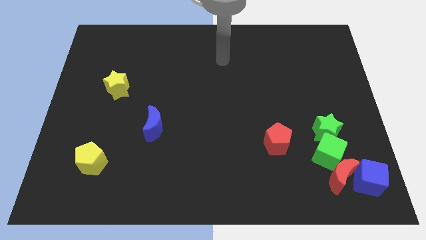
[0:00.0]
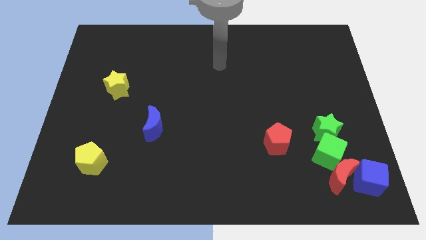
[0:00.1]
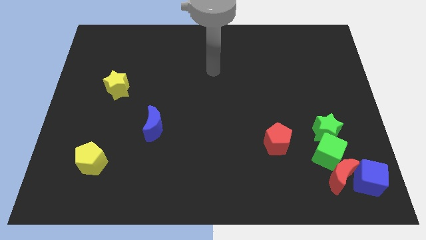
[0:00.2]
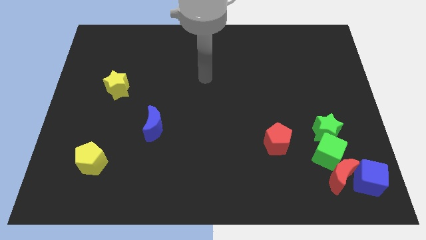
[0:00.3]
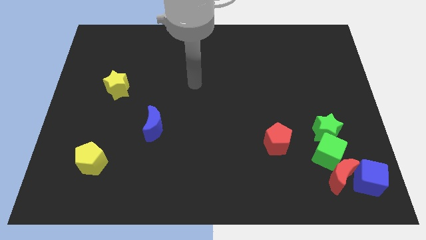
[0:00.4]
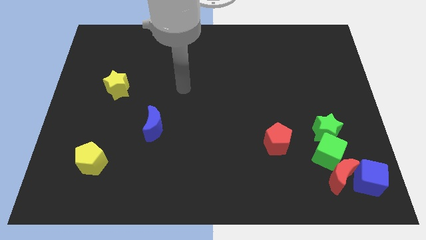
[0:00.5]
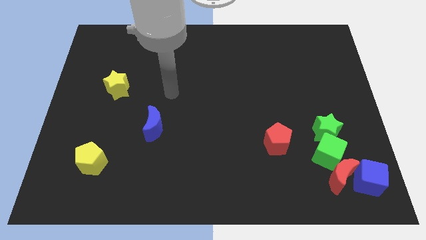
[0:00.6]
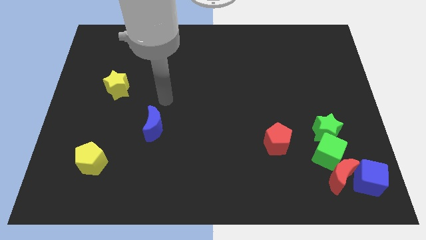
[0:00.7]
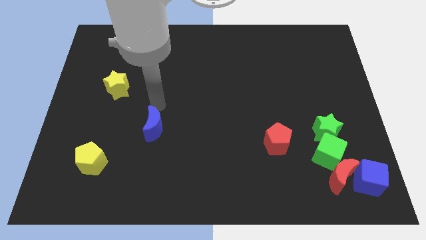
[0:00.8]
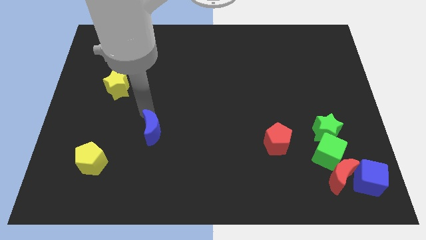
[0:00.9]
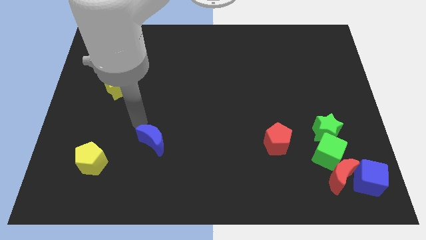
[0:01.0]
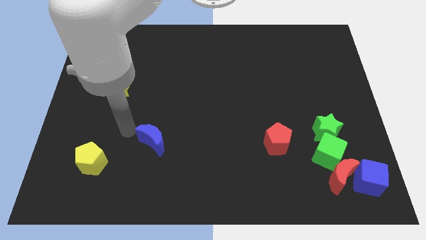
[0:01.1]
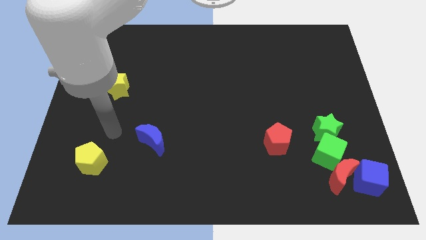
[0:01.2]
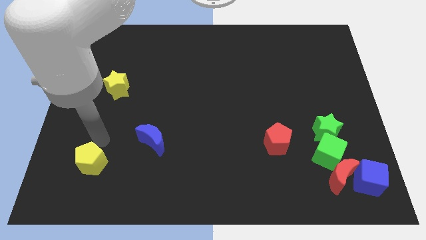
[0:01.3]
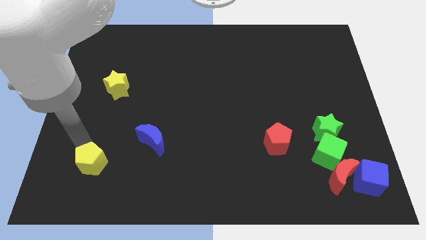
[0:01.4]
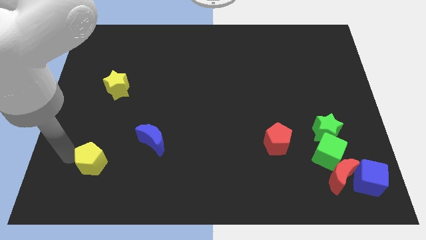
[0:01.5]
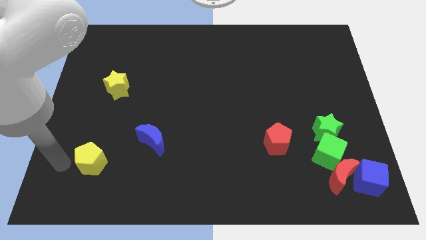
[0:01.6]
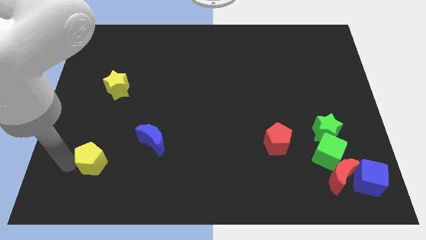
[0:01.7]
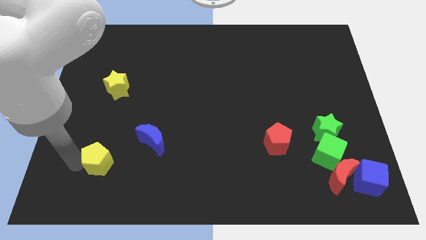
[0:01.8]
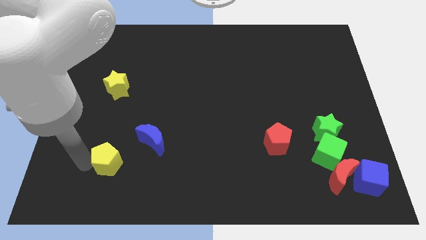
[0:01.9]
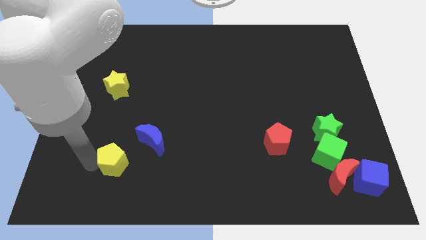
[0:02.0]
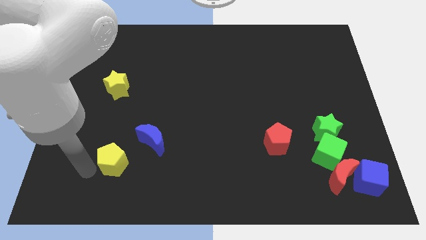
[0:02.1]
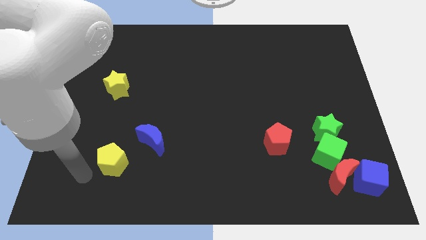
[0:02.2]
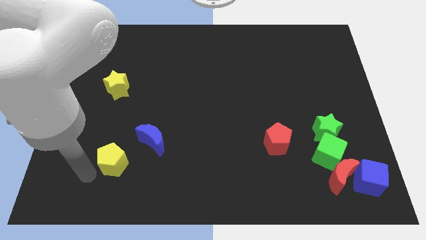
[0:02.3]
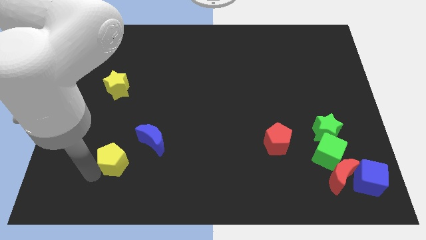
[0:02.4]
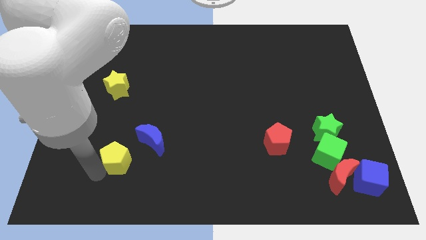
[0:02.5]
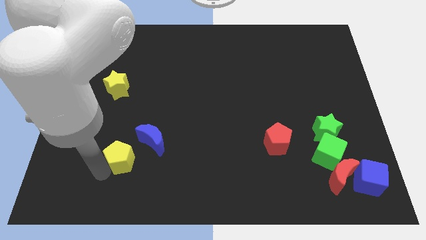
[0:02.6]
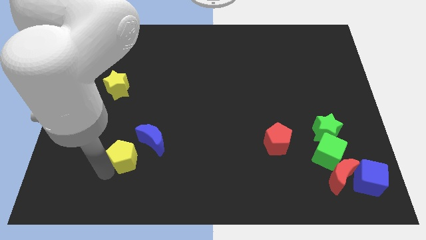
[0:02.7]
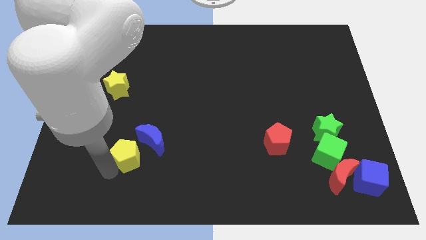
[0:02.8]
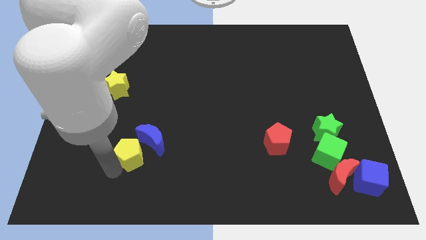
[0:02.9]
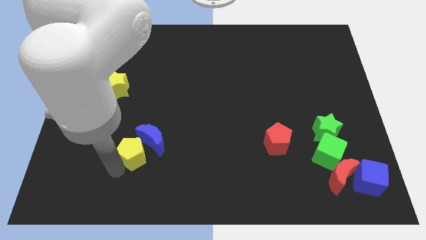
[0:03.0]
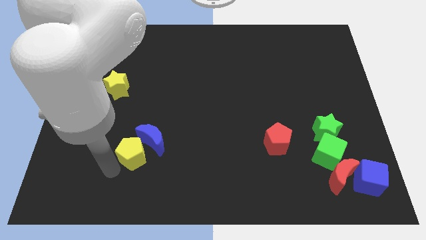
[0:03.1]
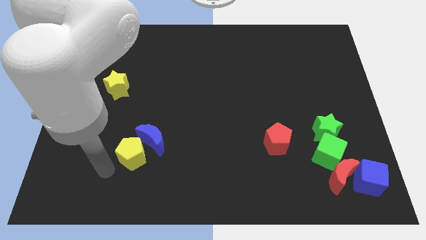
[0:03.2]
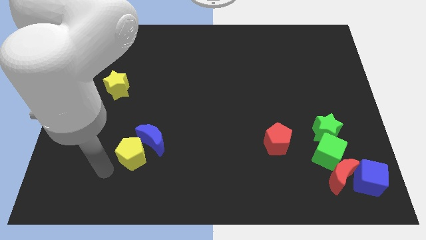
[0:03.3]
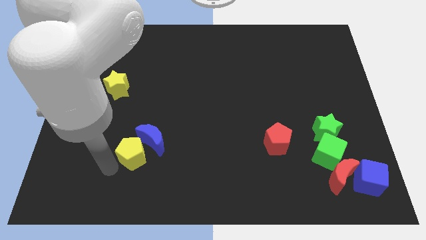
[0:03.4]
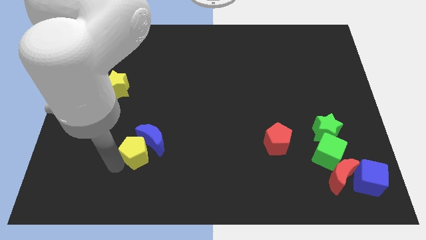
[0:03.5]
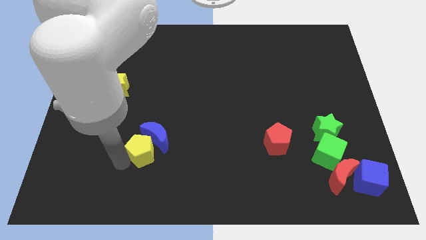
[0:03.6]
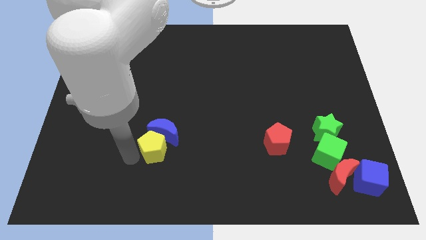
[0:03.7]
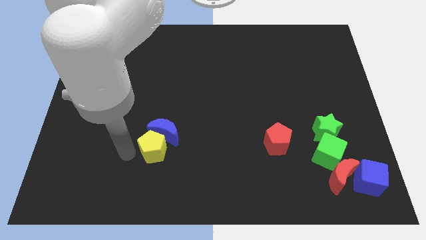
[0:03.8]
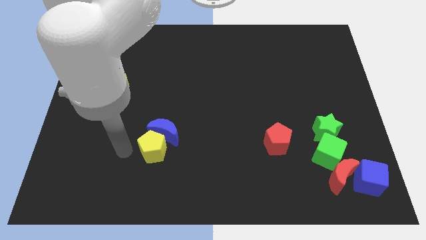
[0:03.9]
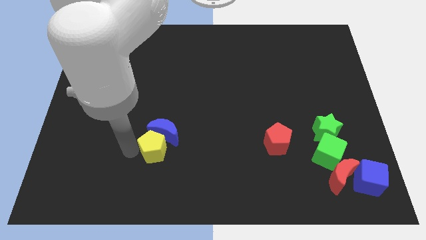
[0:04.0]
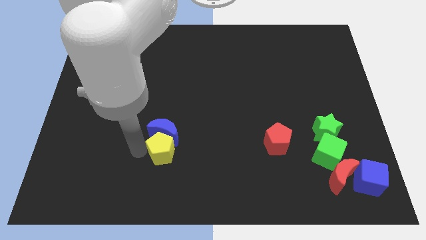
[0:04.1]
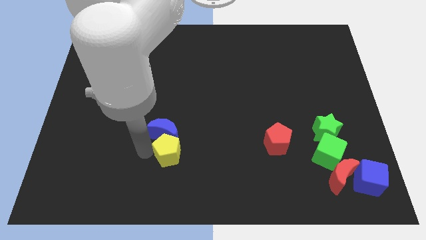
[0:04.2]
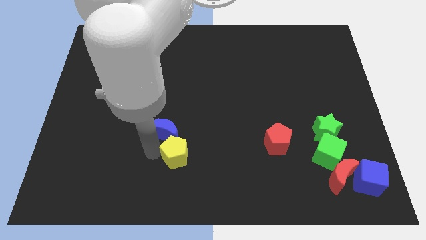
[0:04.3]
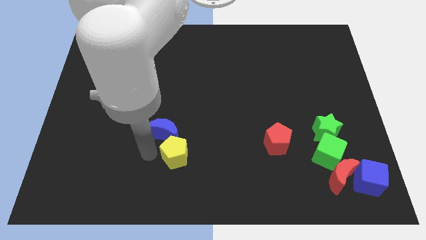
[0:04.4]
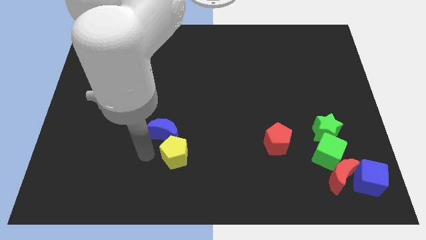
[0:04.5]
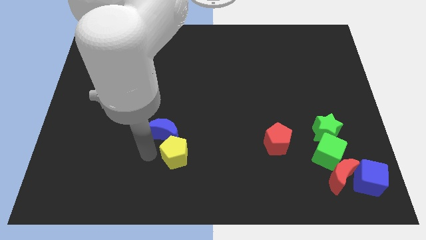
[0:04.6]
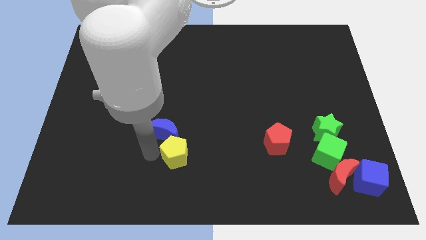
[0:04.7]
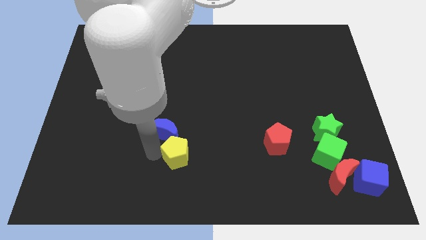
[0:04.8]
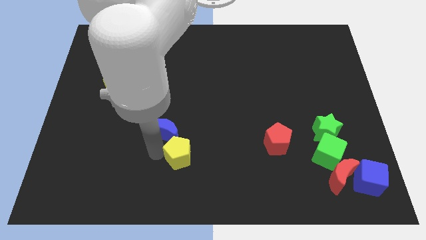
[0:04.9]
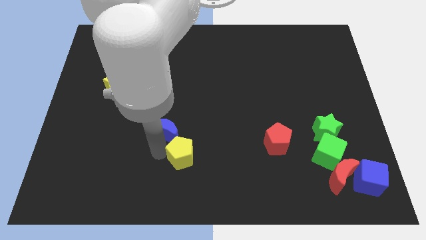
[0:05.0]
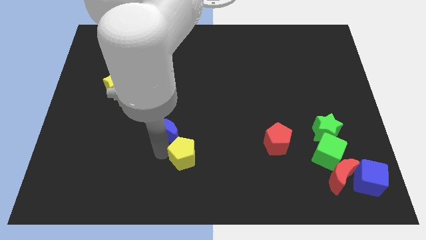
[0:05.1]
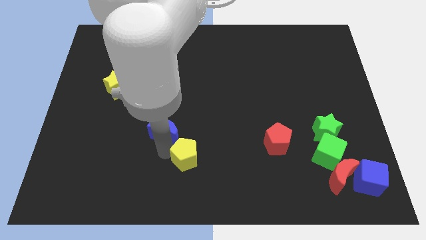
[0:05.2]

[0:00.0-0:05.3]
move the yellow pentagon right

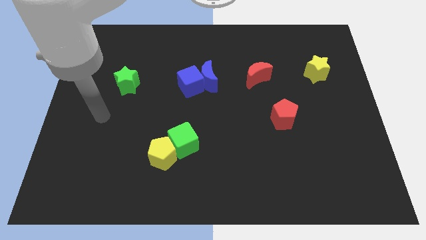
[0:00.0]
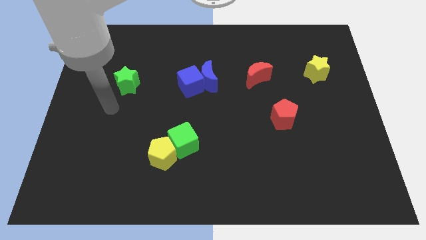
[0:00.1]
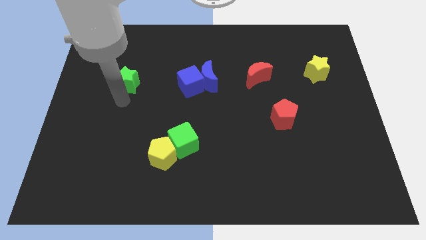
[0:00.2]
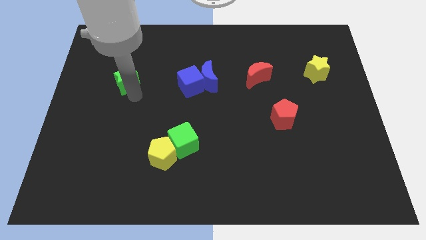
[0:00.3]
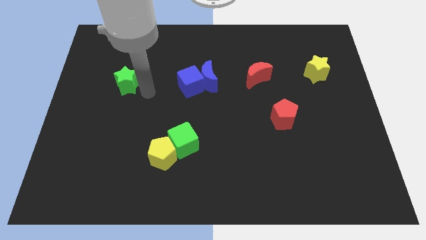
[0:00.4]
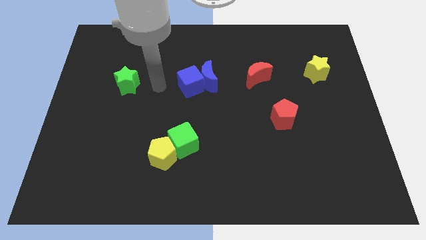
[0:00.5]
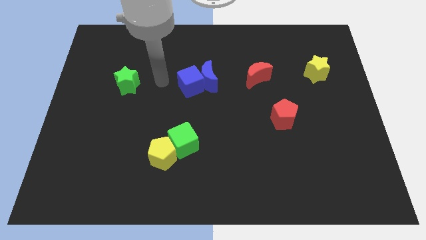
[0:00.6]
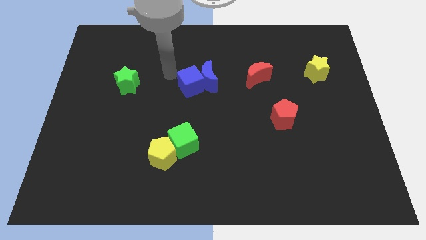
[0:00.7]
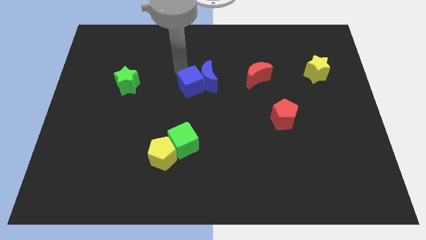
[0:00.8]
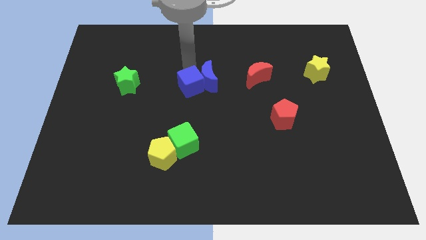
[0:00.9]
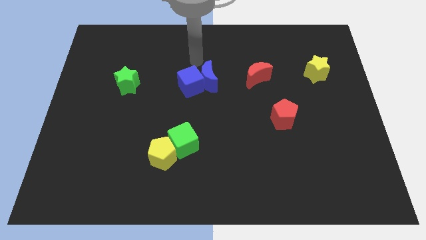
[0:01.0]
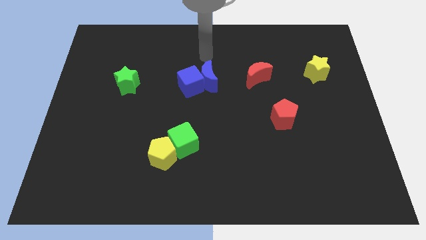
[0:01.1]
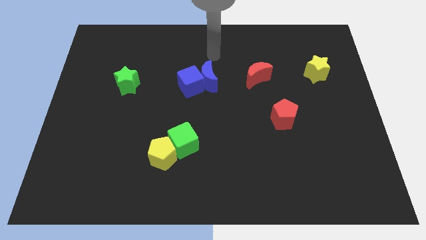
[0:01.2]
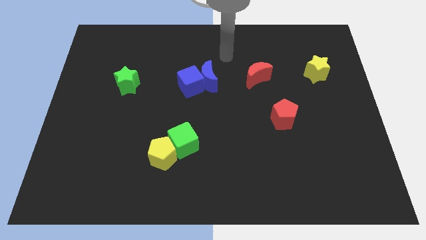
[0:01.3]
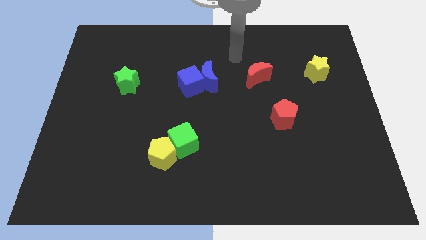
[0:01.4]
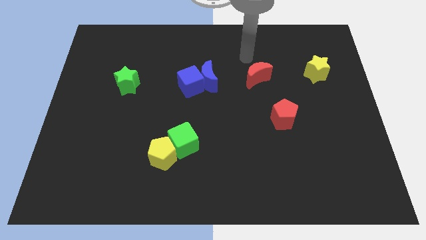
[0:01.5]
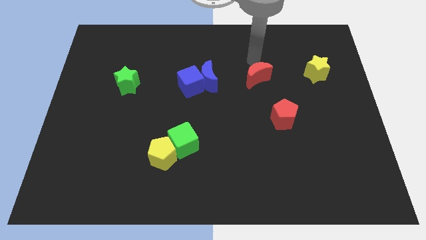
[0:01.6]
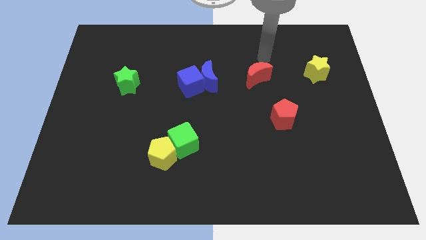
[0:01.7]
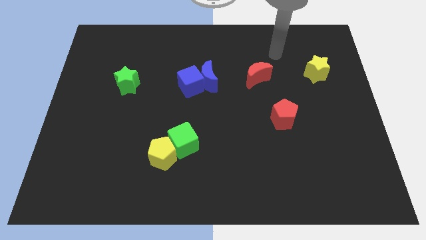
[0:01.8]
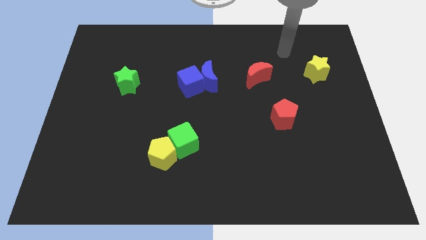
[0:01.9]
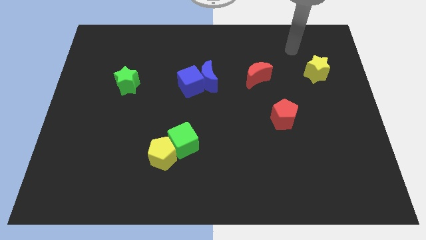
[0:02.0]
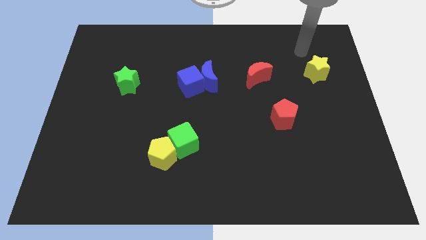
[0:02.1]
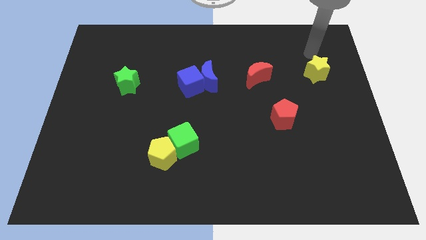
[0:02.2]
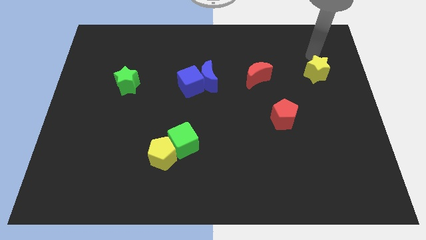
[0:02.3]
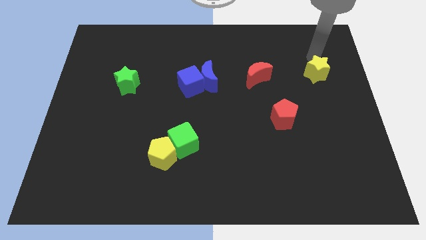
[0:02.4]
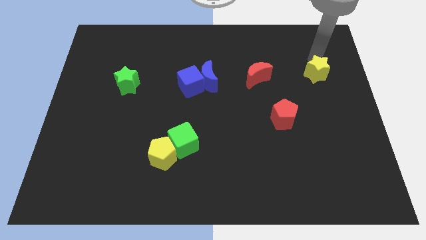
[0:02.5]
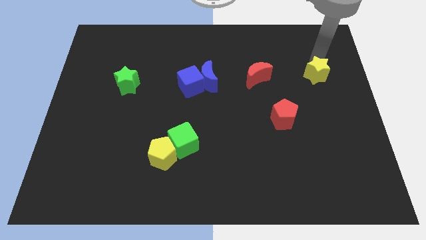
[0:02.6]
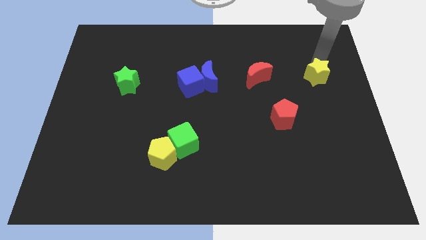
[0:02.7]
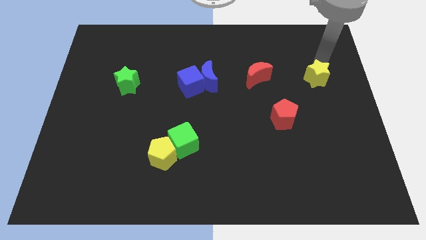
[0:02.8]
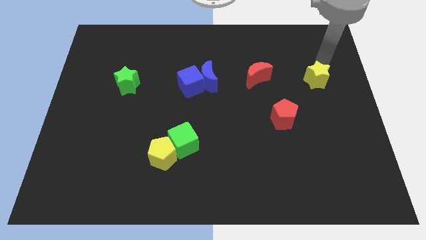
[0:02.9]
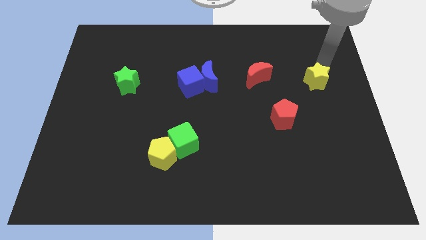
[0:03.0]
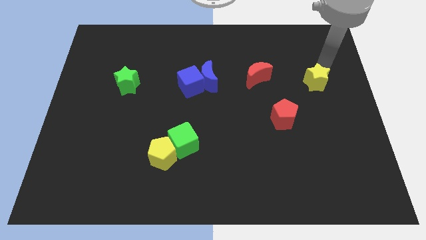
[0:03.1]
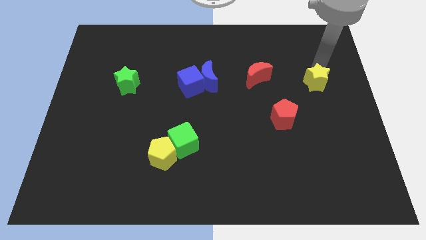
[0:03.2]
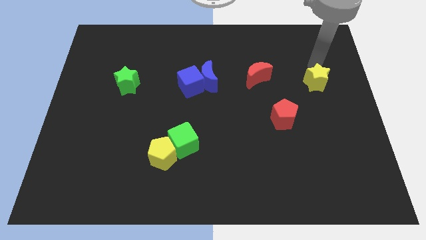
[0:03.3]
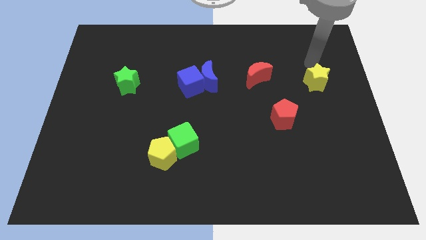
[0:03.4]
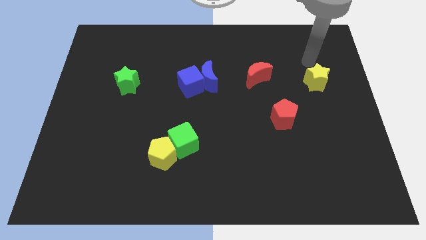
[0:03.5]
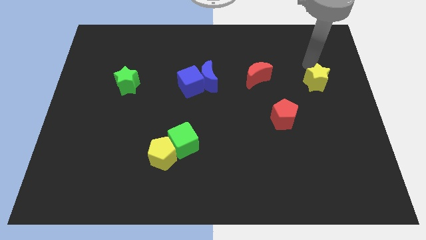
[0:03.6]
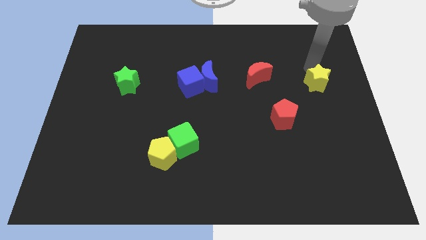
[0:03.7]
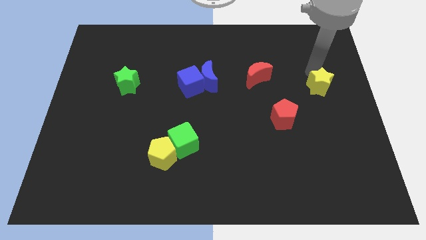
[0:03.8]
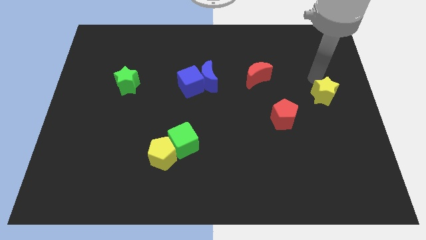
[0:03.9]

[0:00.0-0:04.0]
slide the yellow star a little bit downwards
